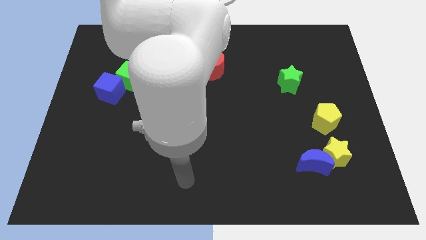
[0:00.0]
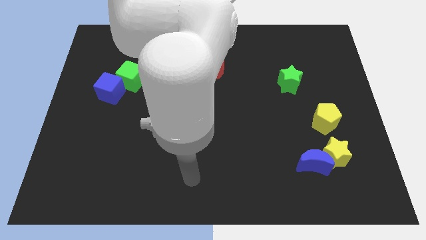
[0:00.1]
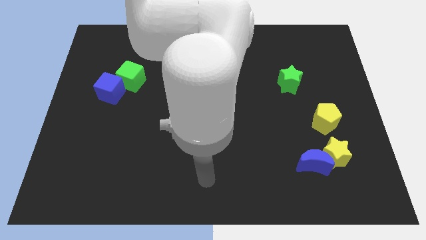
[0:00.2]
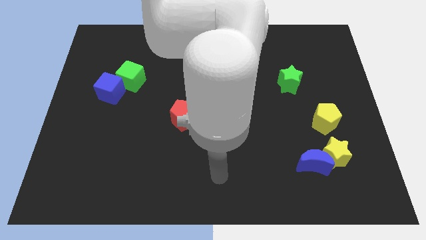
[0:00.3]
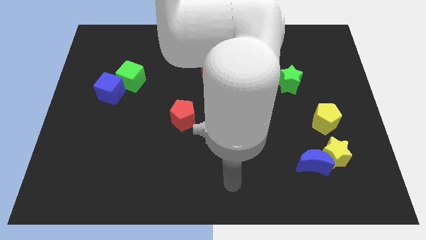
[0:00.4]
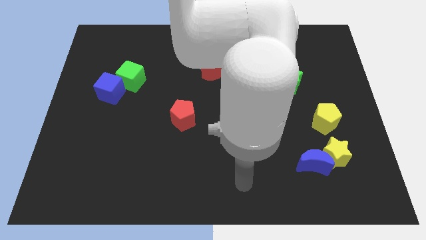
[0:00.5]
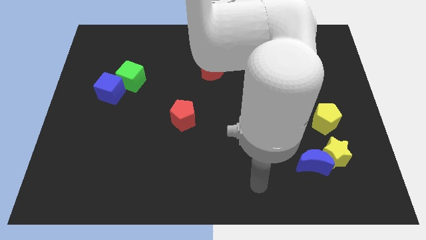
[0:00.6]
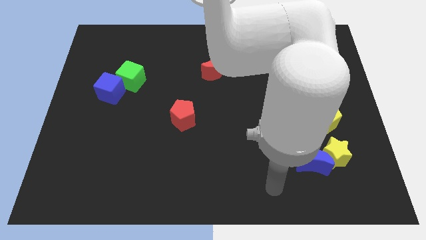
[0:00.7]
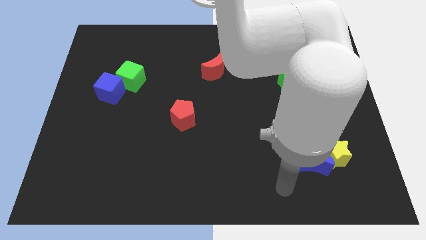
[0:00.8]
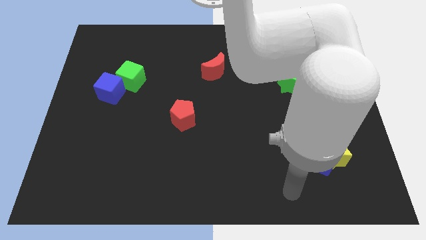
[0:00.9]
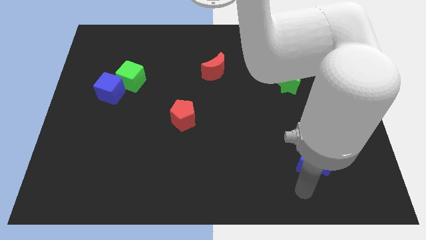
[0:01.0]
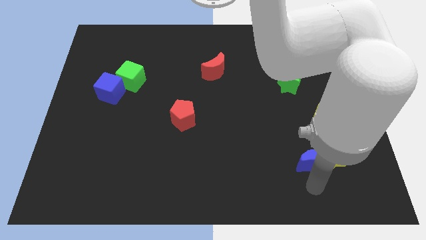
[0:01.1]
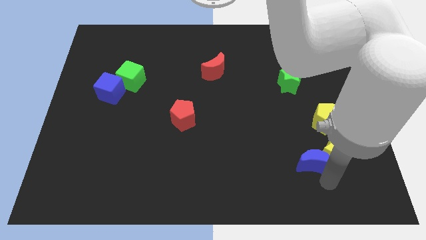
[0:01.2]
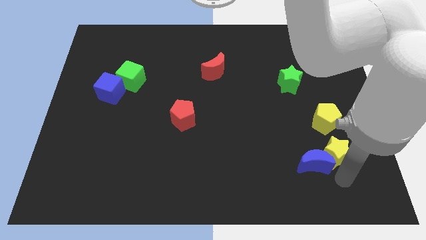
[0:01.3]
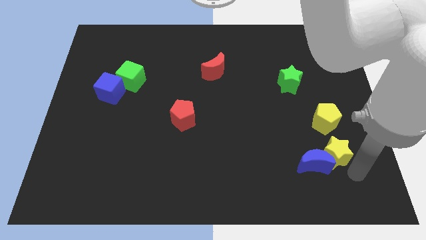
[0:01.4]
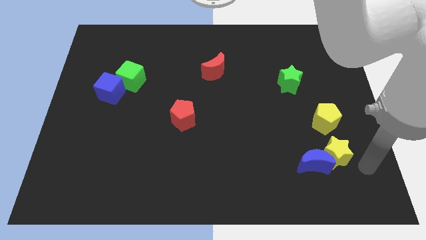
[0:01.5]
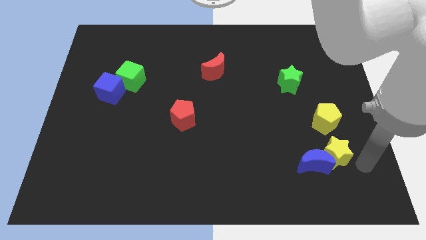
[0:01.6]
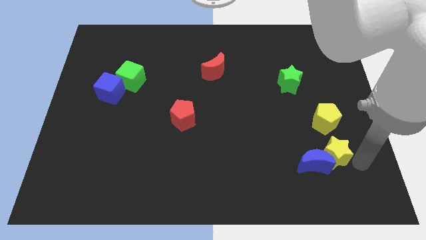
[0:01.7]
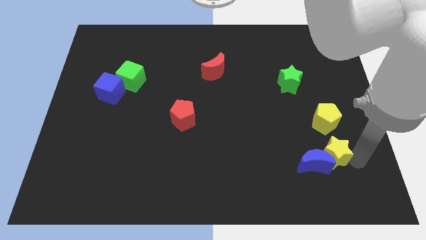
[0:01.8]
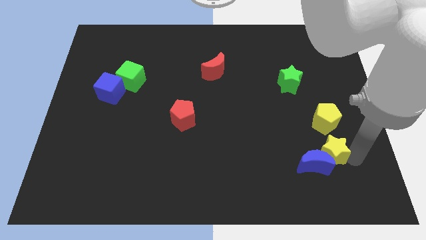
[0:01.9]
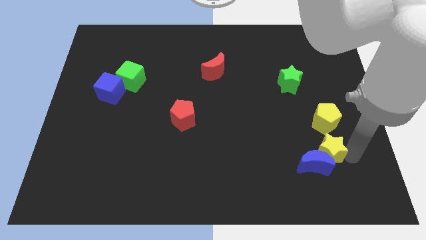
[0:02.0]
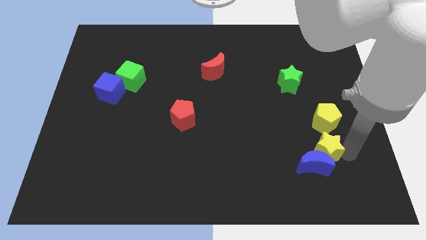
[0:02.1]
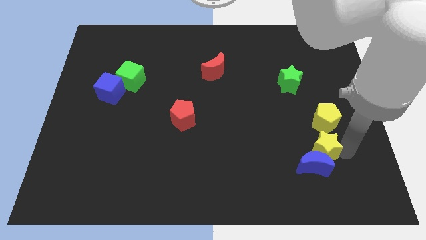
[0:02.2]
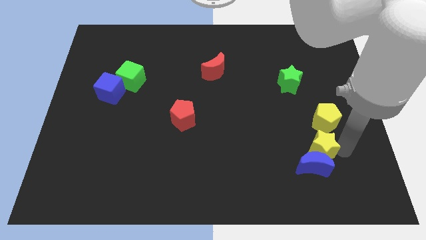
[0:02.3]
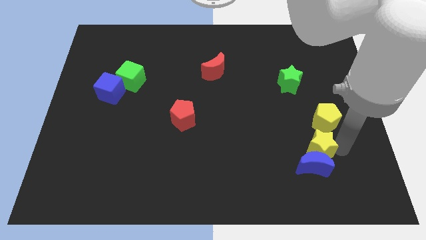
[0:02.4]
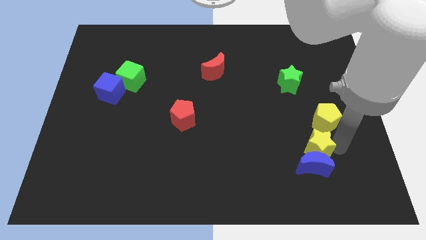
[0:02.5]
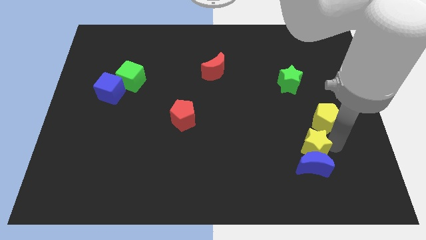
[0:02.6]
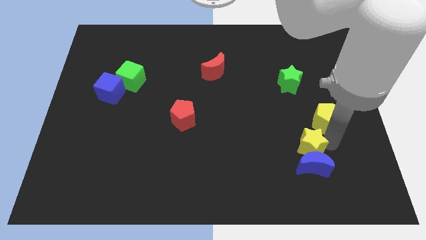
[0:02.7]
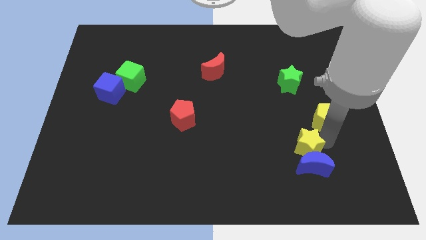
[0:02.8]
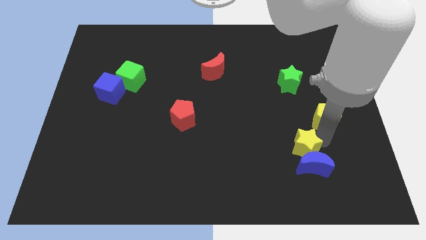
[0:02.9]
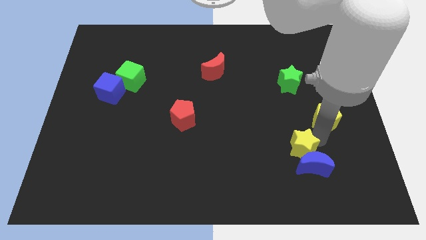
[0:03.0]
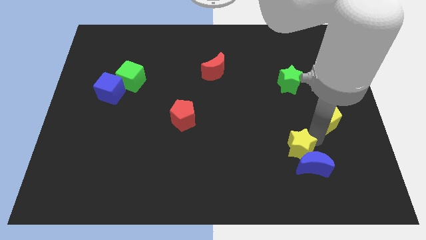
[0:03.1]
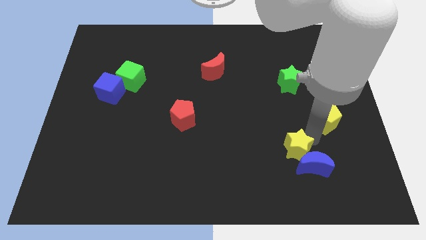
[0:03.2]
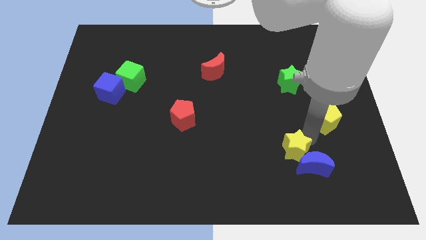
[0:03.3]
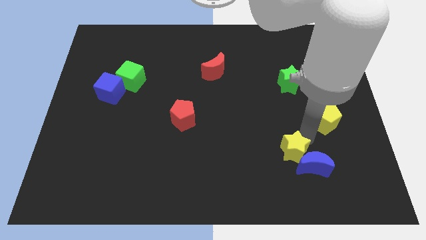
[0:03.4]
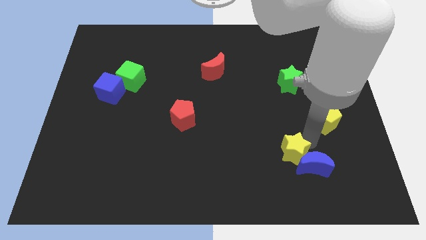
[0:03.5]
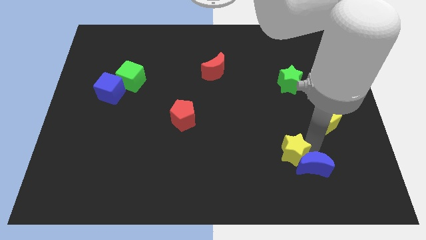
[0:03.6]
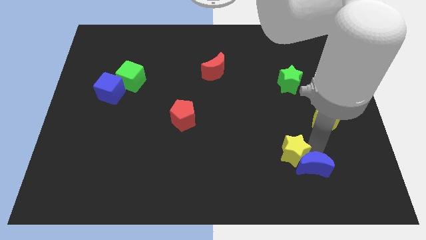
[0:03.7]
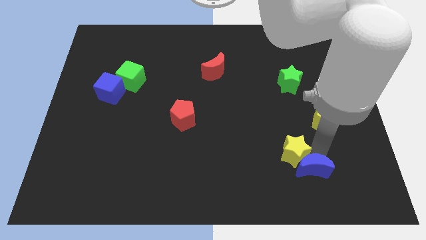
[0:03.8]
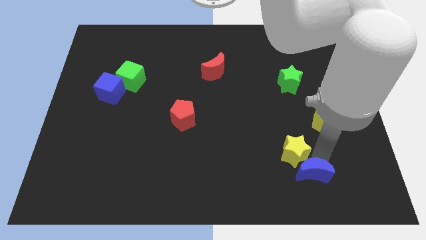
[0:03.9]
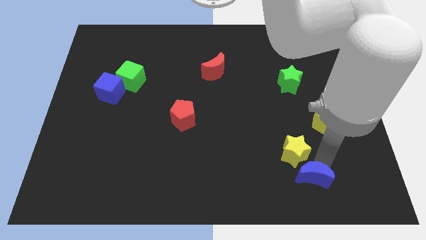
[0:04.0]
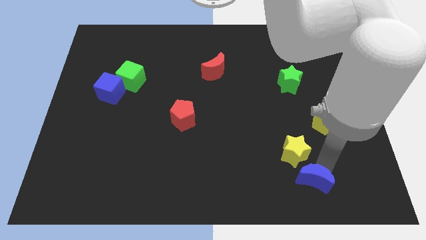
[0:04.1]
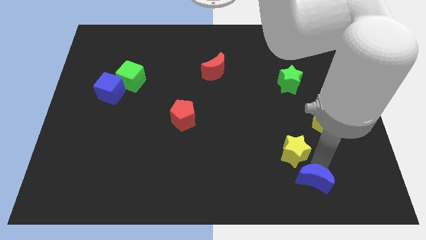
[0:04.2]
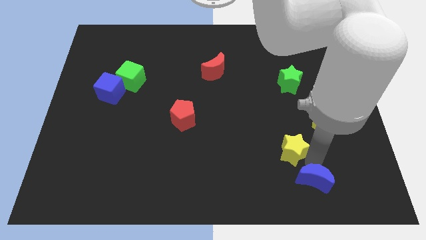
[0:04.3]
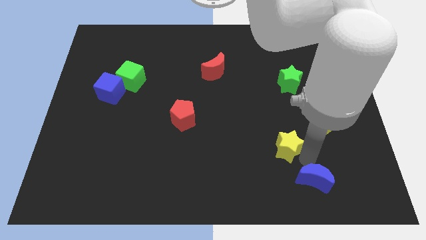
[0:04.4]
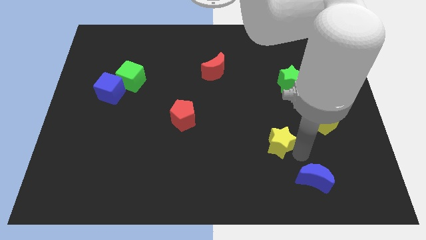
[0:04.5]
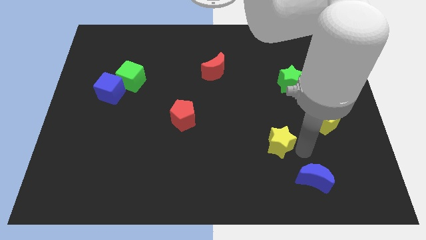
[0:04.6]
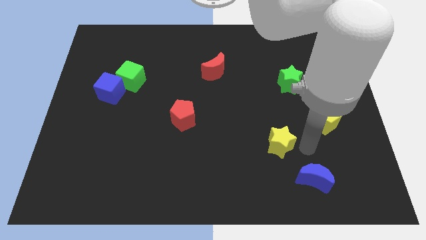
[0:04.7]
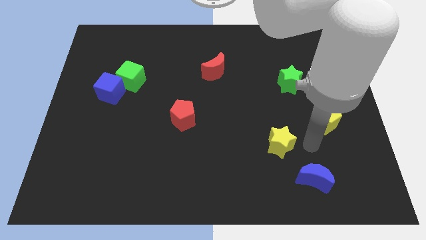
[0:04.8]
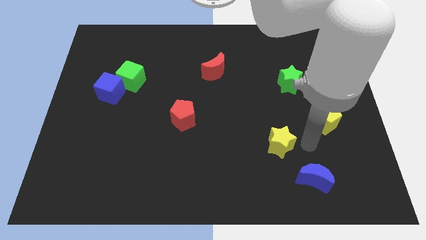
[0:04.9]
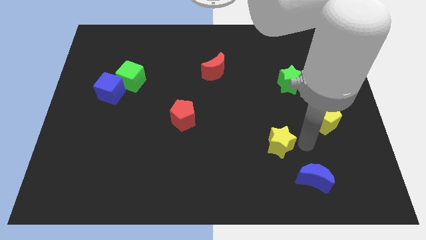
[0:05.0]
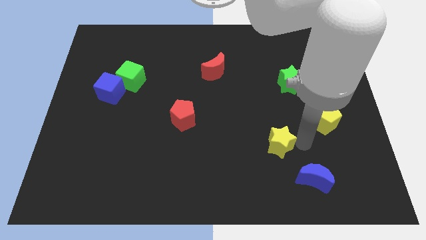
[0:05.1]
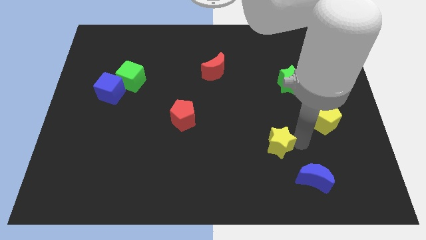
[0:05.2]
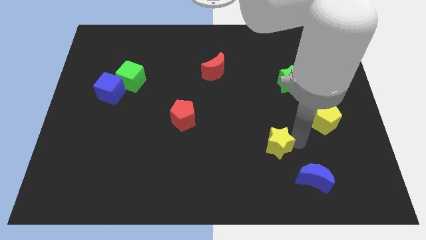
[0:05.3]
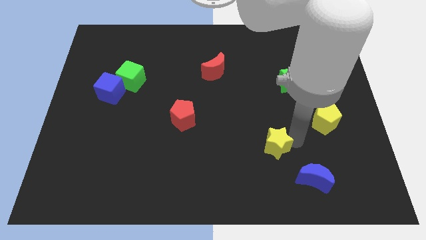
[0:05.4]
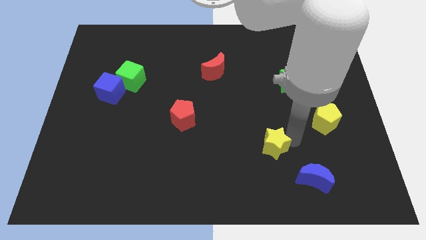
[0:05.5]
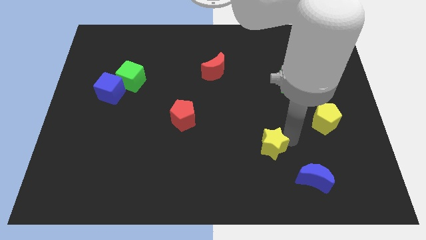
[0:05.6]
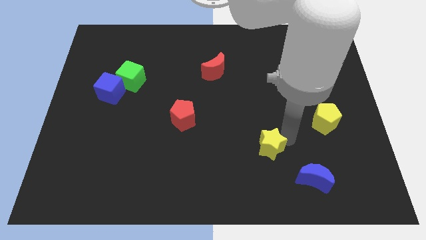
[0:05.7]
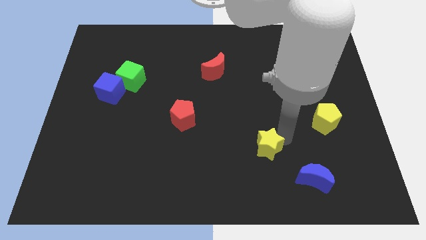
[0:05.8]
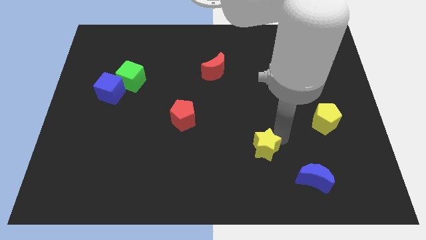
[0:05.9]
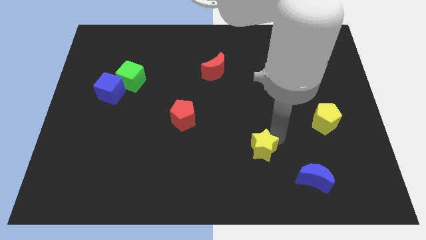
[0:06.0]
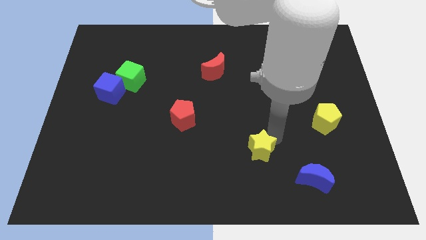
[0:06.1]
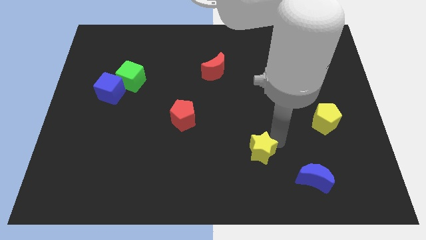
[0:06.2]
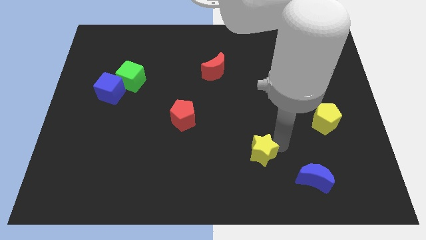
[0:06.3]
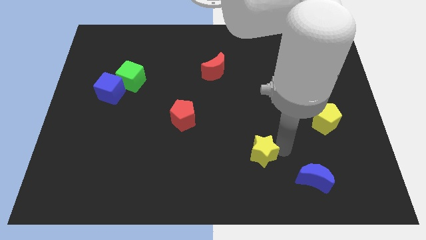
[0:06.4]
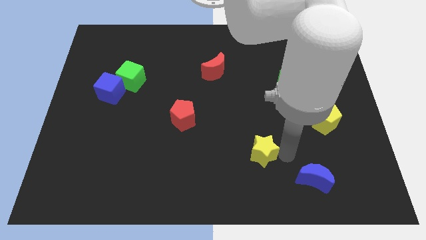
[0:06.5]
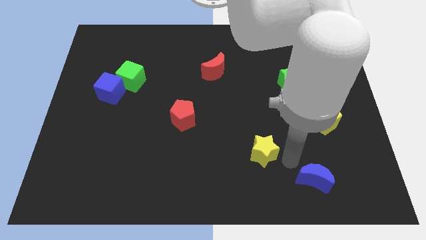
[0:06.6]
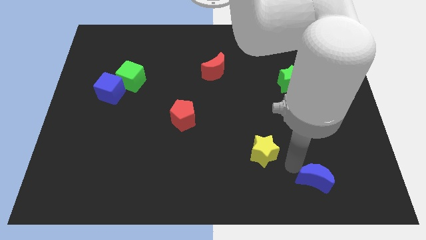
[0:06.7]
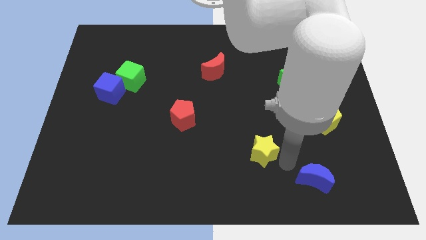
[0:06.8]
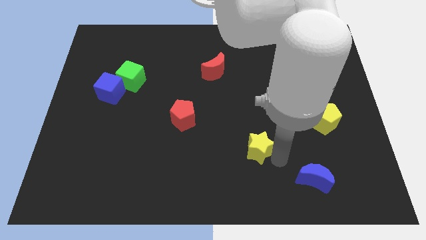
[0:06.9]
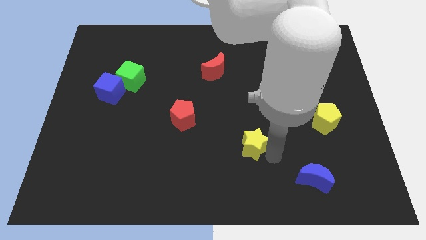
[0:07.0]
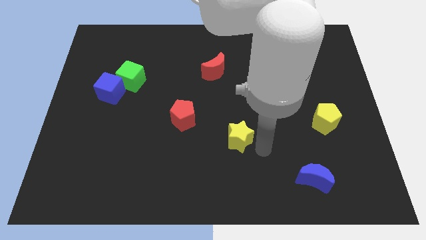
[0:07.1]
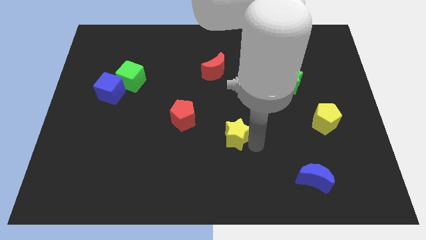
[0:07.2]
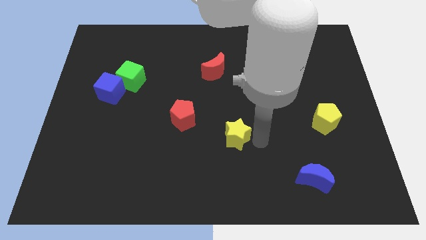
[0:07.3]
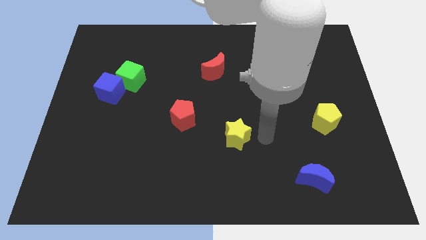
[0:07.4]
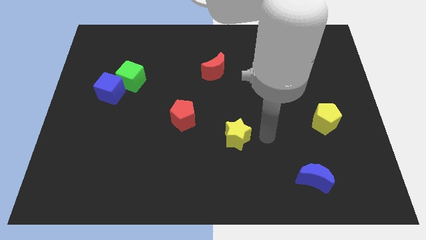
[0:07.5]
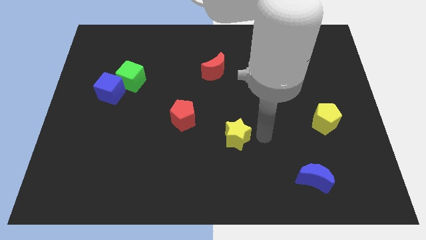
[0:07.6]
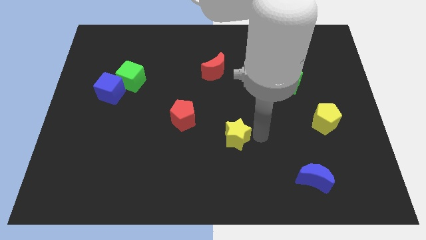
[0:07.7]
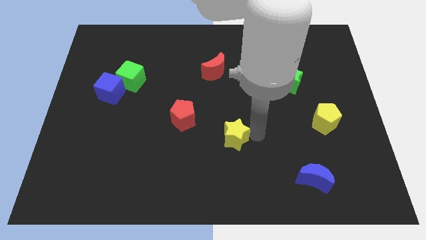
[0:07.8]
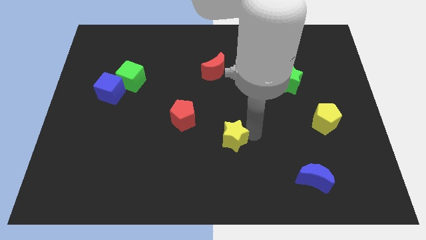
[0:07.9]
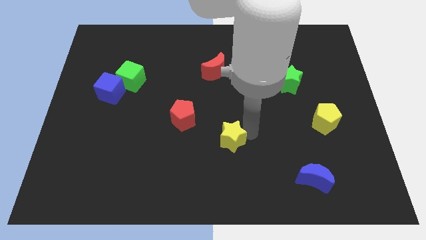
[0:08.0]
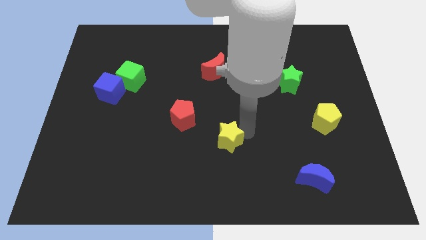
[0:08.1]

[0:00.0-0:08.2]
put the yellow star to the bottom right of the red pentagon

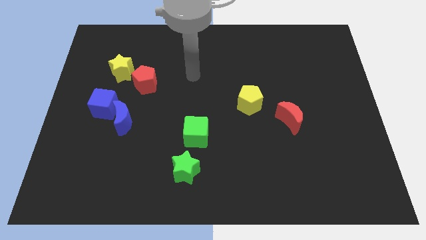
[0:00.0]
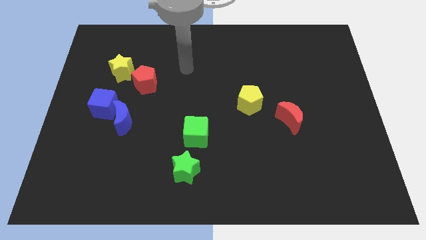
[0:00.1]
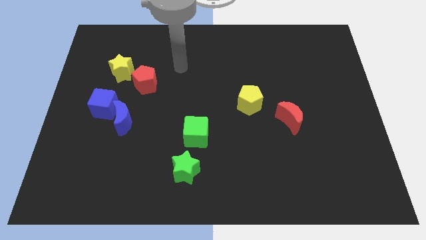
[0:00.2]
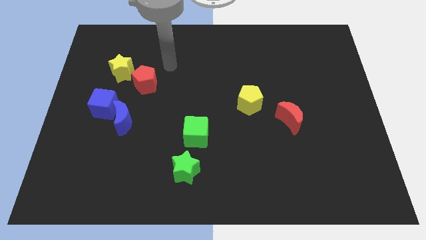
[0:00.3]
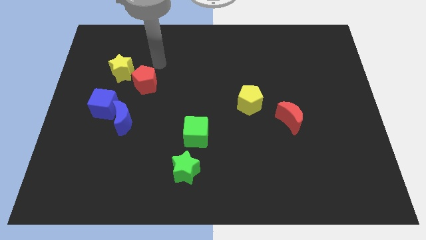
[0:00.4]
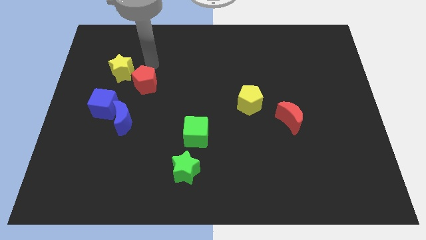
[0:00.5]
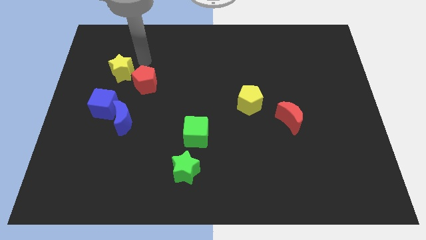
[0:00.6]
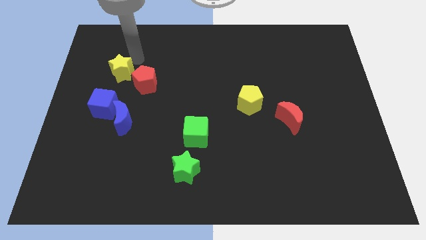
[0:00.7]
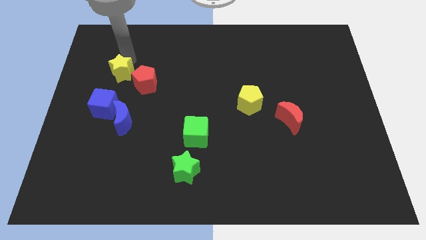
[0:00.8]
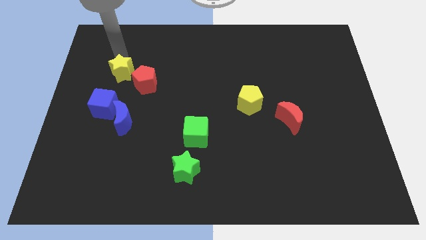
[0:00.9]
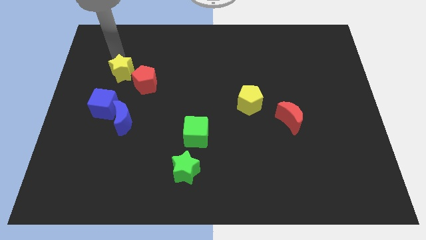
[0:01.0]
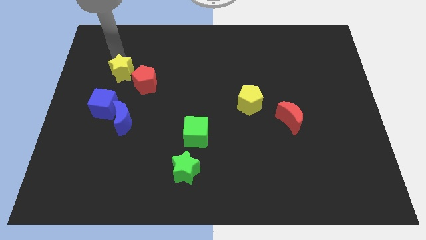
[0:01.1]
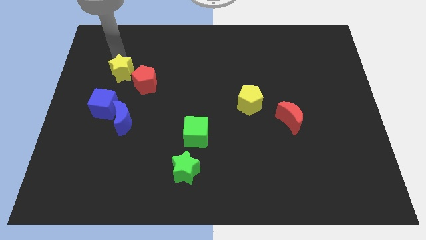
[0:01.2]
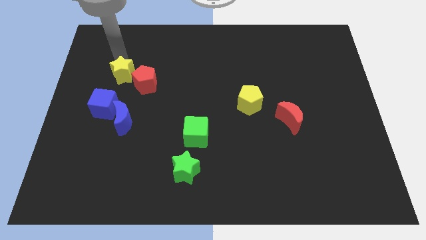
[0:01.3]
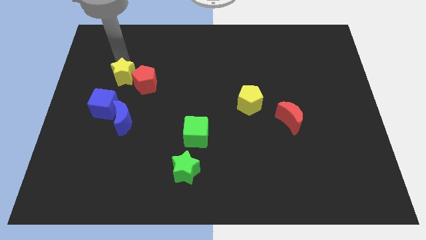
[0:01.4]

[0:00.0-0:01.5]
put the yellow star diagonally up and to the right of the blue cube
